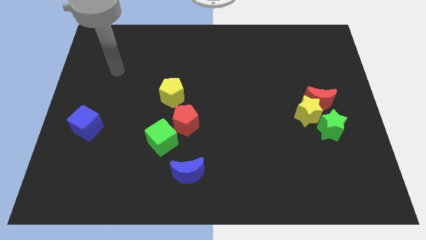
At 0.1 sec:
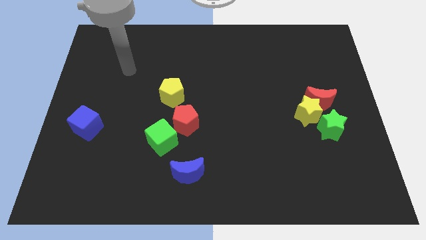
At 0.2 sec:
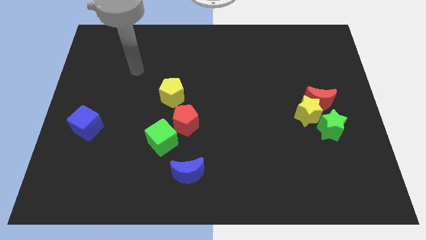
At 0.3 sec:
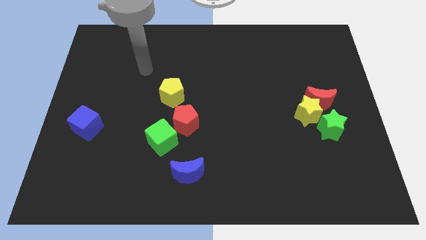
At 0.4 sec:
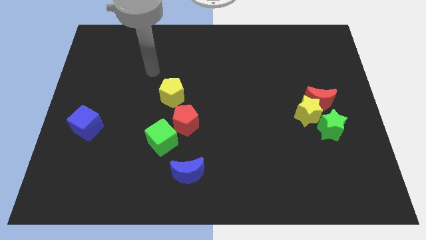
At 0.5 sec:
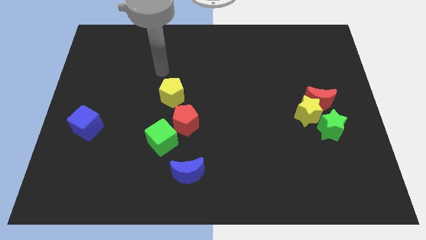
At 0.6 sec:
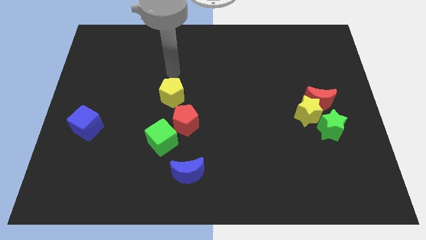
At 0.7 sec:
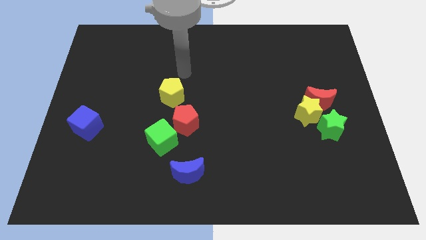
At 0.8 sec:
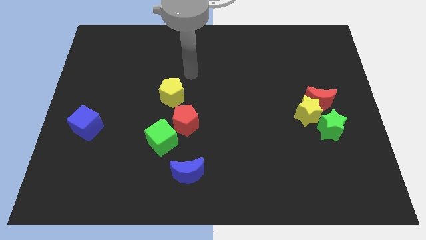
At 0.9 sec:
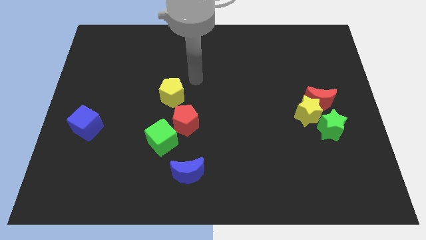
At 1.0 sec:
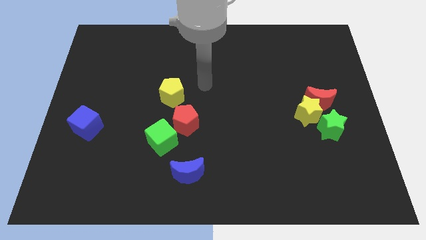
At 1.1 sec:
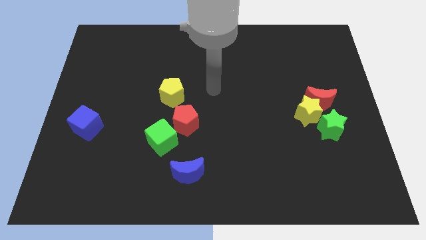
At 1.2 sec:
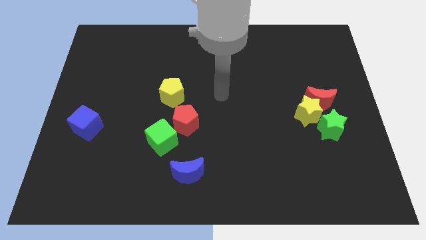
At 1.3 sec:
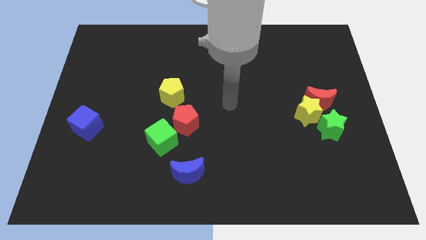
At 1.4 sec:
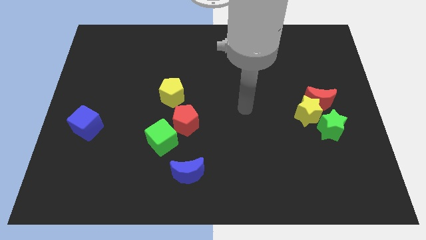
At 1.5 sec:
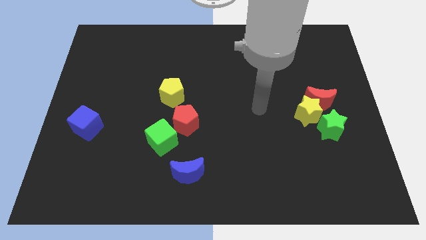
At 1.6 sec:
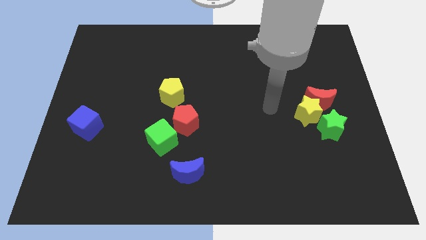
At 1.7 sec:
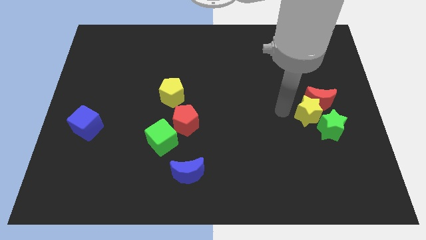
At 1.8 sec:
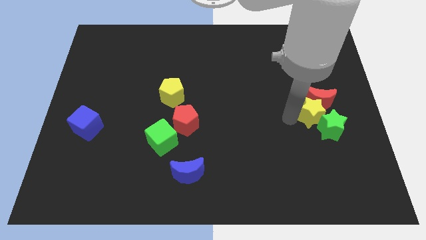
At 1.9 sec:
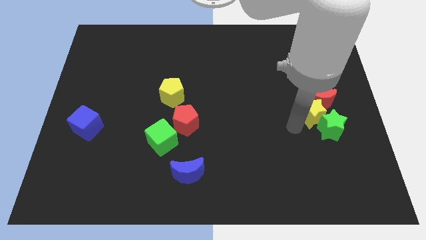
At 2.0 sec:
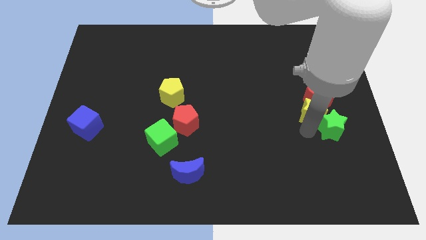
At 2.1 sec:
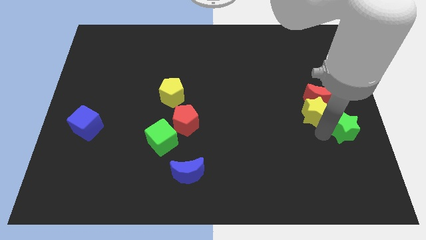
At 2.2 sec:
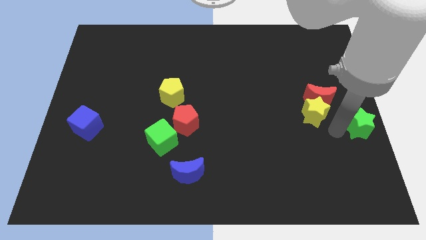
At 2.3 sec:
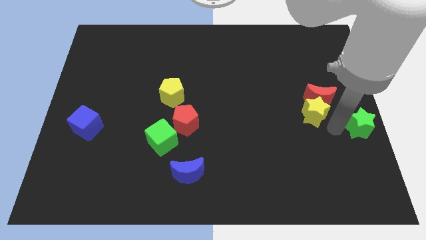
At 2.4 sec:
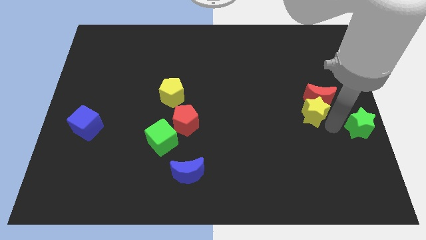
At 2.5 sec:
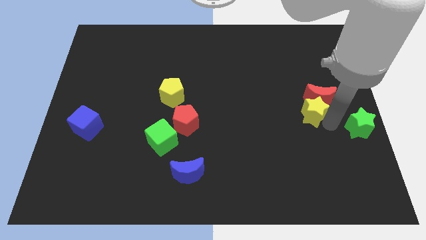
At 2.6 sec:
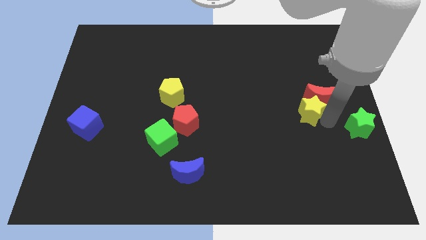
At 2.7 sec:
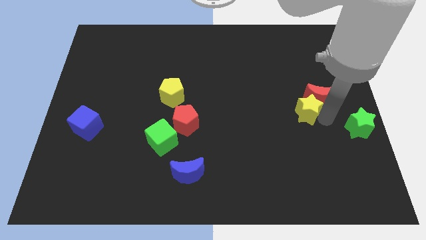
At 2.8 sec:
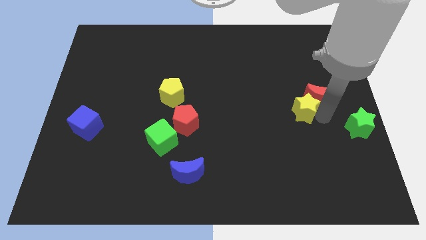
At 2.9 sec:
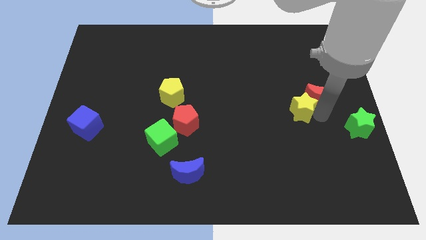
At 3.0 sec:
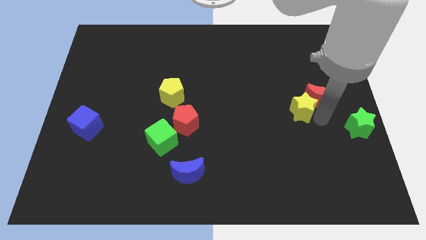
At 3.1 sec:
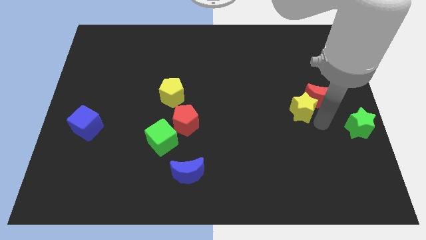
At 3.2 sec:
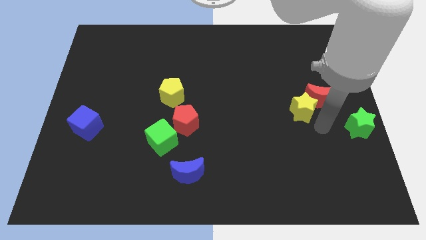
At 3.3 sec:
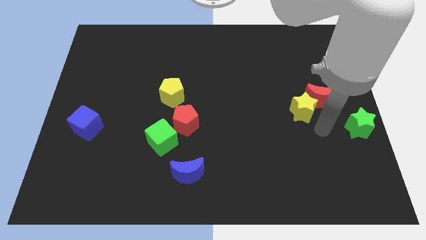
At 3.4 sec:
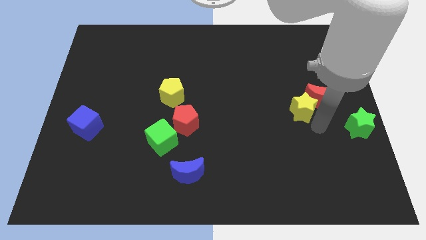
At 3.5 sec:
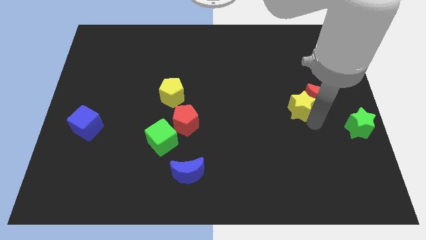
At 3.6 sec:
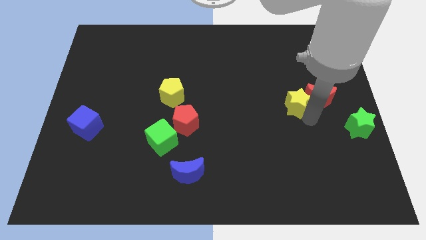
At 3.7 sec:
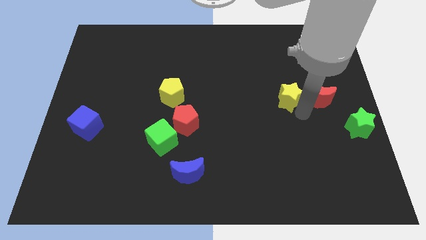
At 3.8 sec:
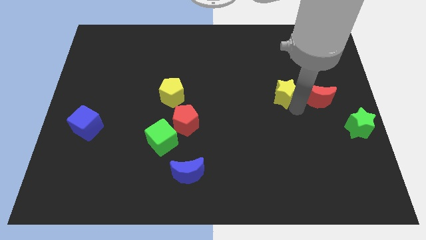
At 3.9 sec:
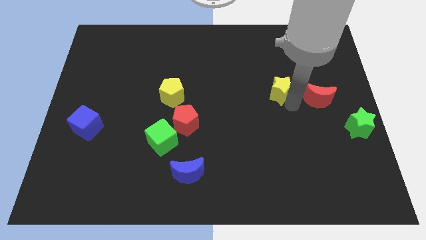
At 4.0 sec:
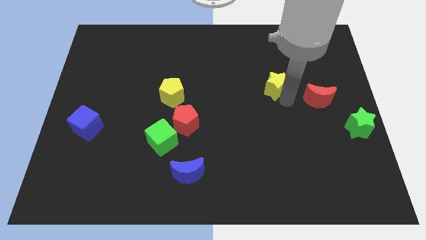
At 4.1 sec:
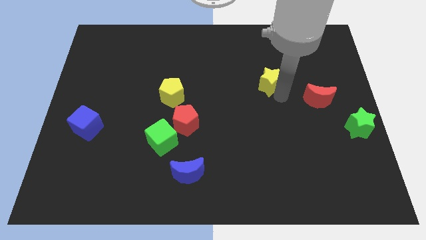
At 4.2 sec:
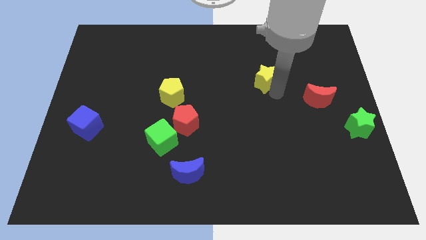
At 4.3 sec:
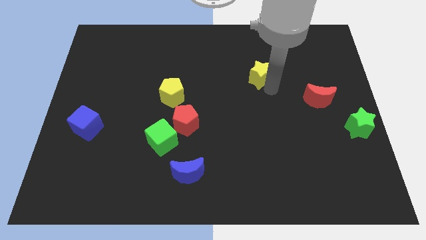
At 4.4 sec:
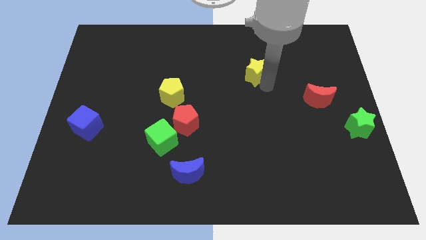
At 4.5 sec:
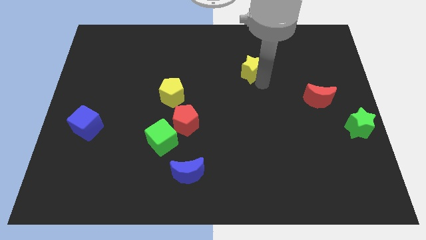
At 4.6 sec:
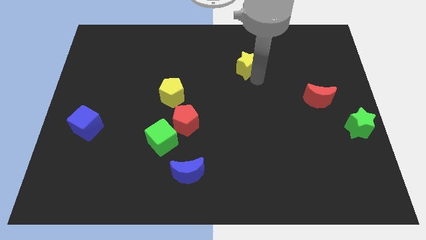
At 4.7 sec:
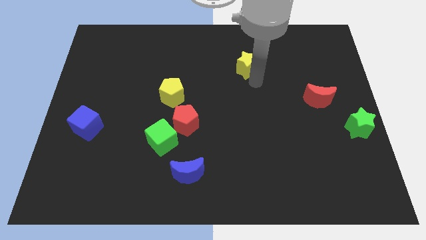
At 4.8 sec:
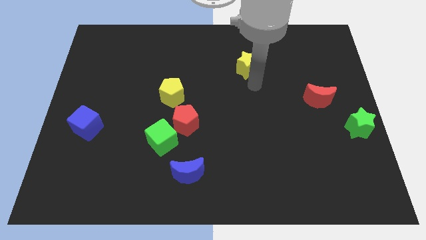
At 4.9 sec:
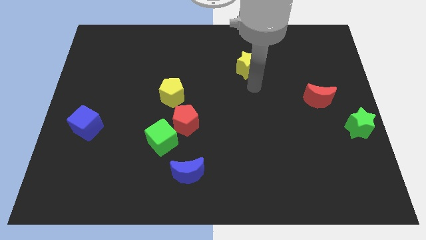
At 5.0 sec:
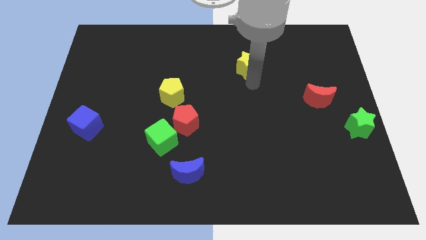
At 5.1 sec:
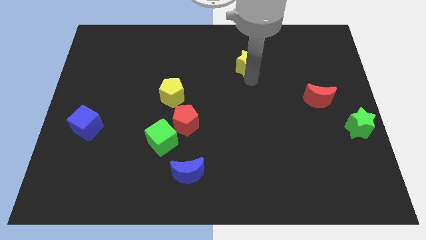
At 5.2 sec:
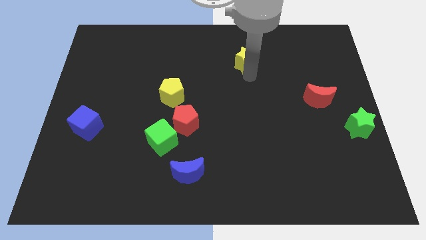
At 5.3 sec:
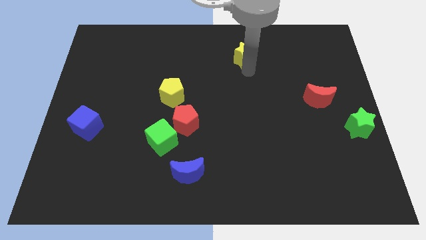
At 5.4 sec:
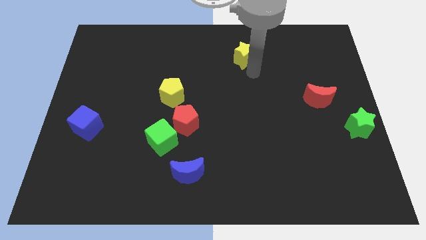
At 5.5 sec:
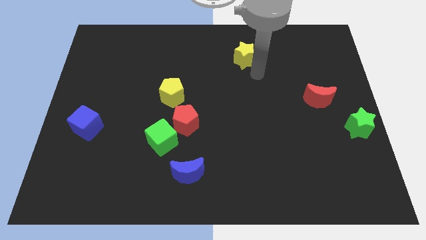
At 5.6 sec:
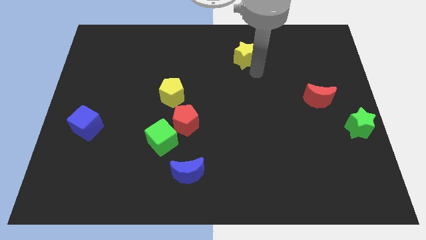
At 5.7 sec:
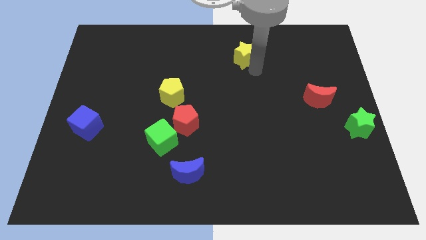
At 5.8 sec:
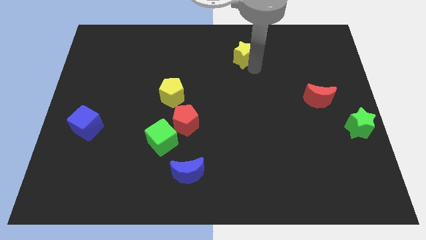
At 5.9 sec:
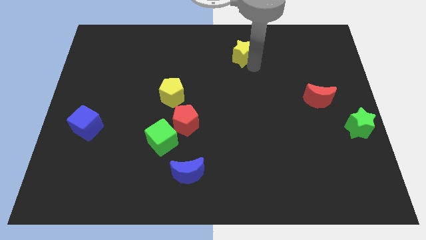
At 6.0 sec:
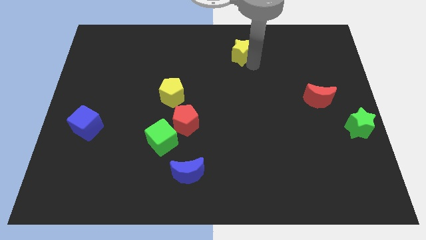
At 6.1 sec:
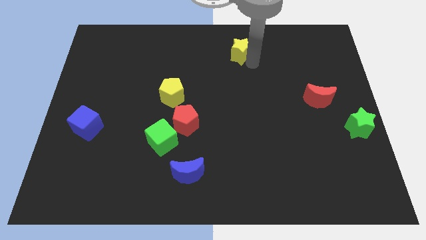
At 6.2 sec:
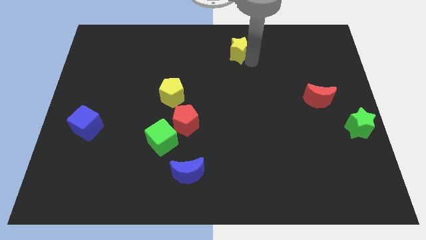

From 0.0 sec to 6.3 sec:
move the yellow star to the top side

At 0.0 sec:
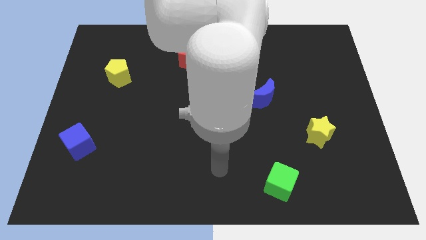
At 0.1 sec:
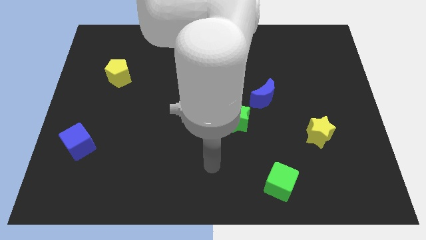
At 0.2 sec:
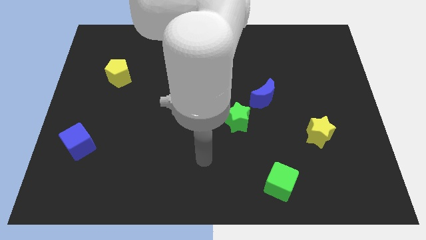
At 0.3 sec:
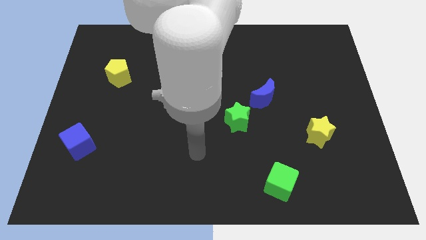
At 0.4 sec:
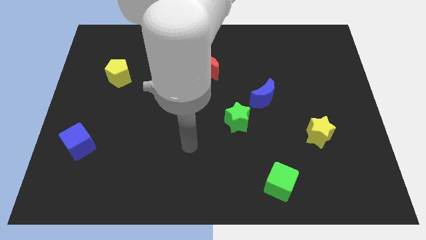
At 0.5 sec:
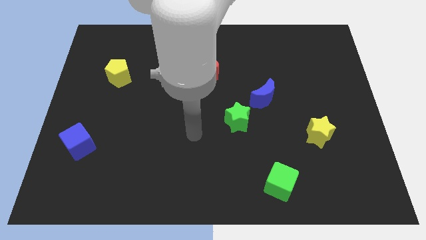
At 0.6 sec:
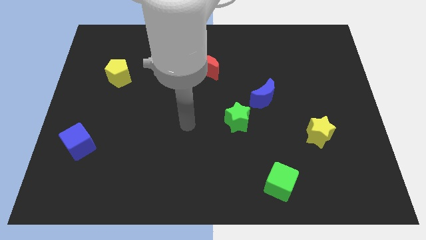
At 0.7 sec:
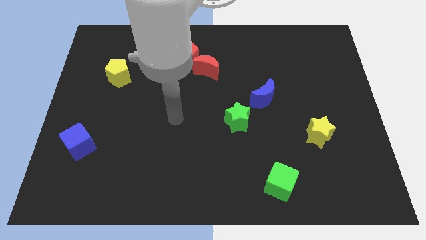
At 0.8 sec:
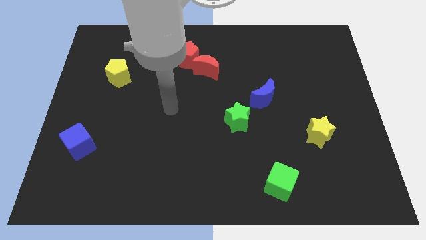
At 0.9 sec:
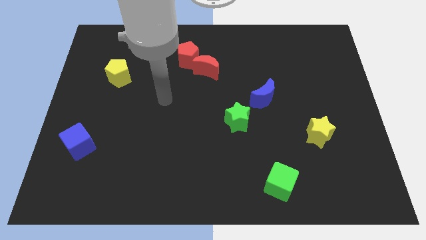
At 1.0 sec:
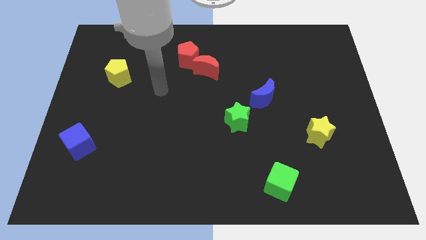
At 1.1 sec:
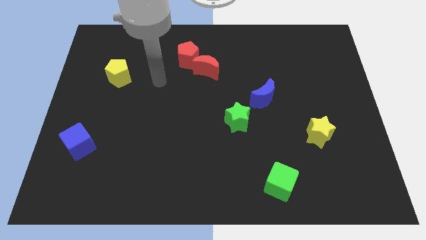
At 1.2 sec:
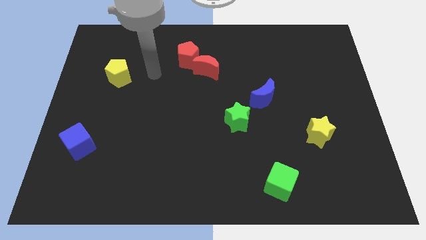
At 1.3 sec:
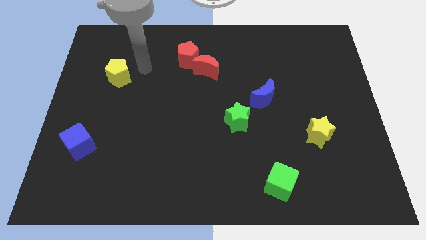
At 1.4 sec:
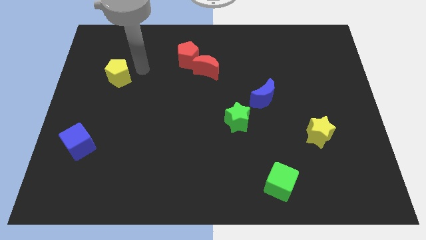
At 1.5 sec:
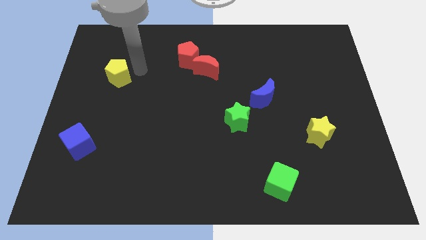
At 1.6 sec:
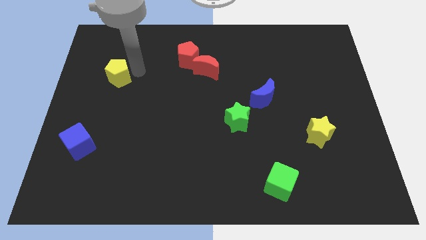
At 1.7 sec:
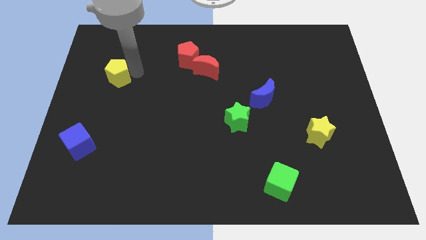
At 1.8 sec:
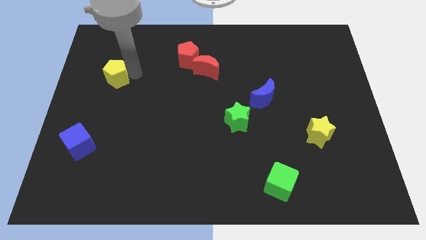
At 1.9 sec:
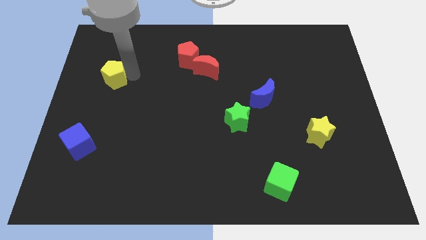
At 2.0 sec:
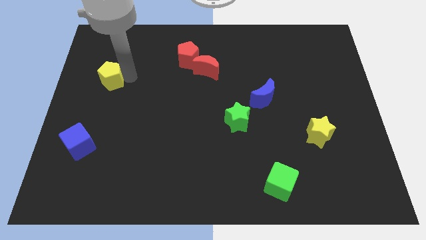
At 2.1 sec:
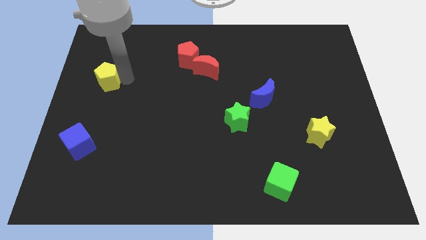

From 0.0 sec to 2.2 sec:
push the yellow pentagon to the left side
